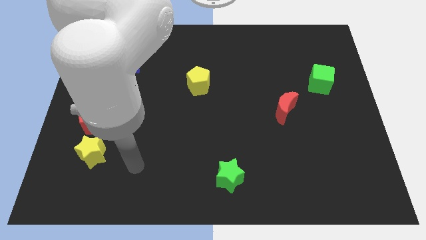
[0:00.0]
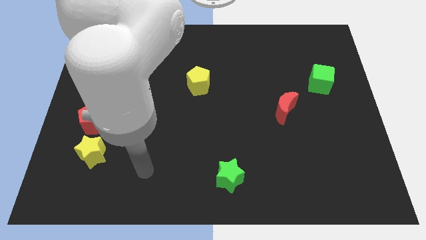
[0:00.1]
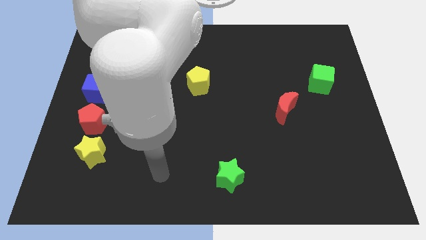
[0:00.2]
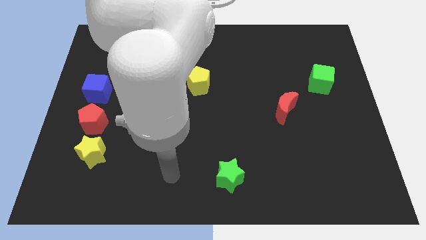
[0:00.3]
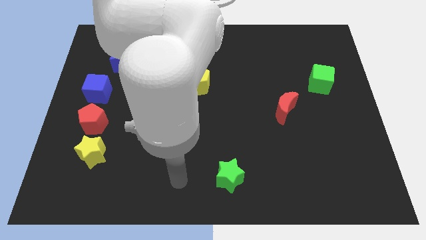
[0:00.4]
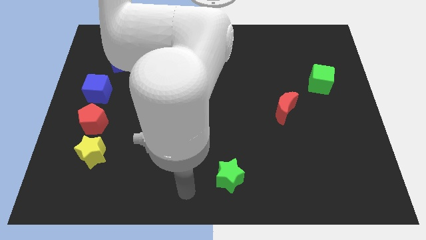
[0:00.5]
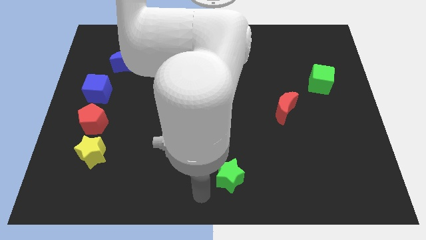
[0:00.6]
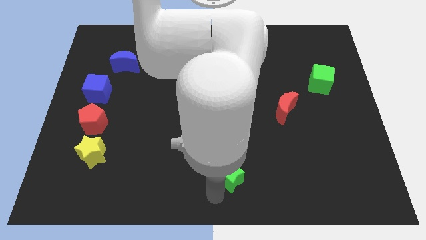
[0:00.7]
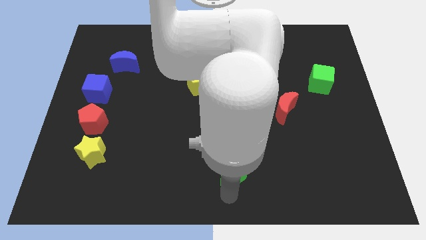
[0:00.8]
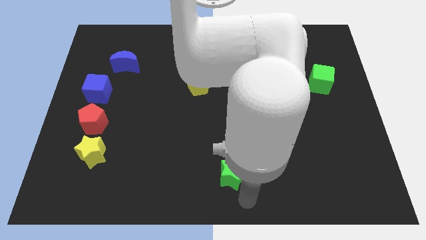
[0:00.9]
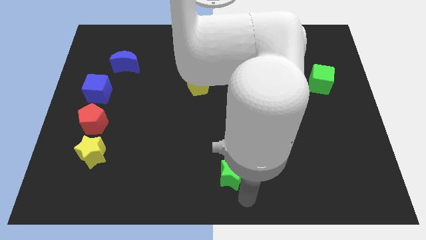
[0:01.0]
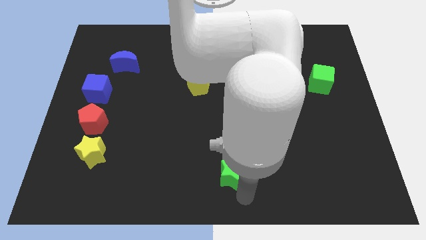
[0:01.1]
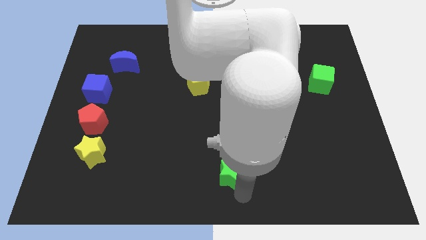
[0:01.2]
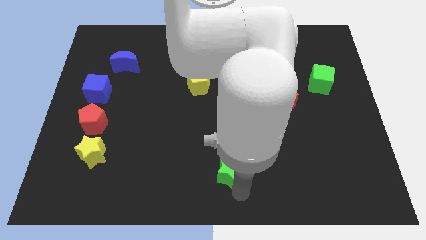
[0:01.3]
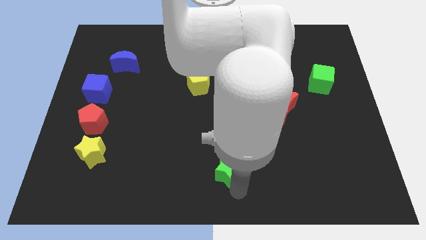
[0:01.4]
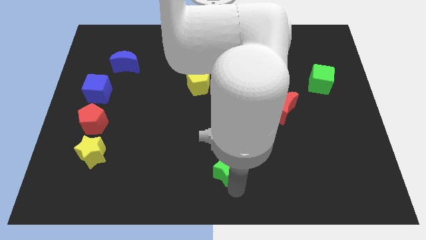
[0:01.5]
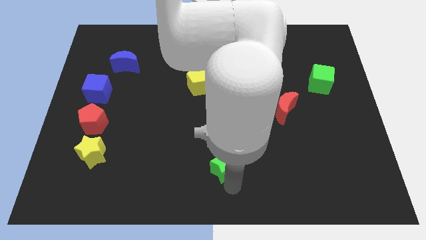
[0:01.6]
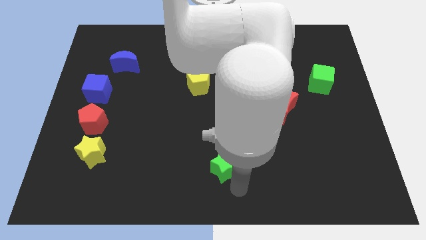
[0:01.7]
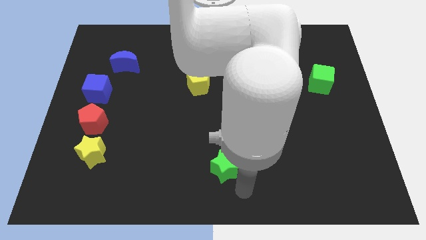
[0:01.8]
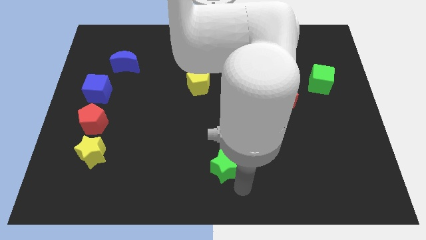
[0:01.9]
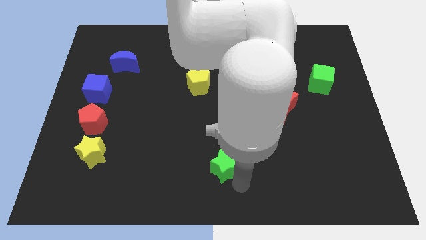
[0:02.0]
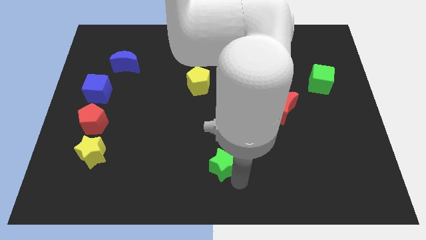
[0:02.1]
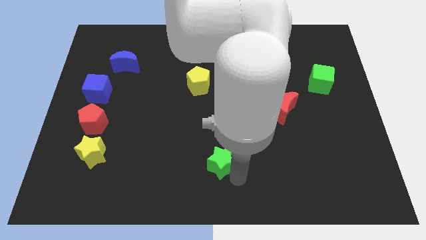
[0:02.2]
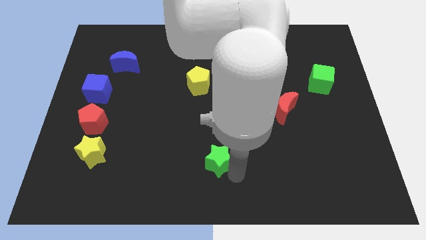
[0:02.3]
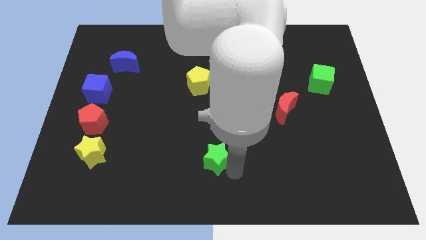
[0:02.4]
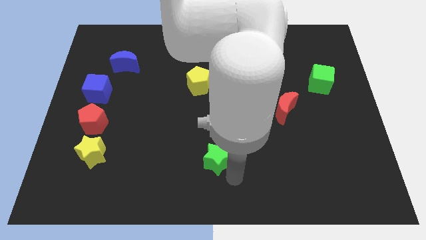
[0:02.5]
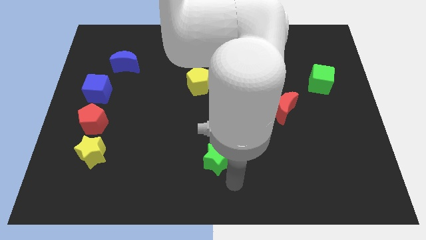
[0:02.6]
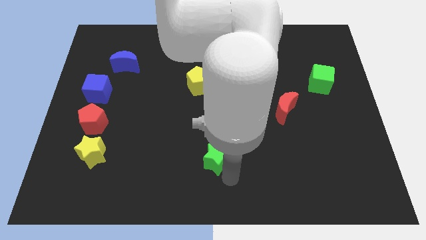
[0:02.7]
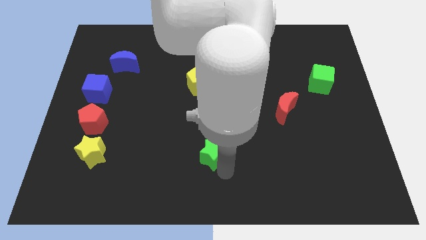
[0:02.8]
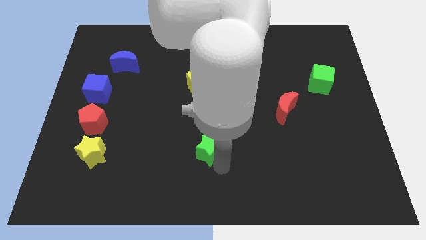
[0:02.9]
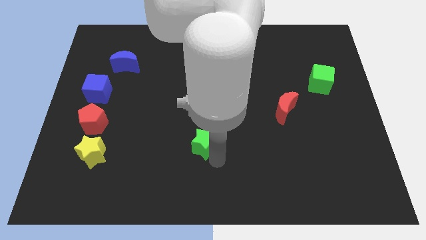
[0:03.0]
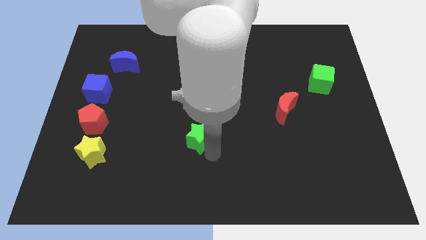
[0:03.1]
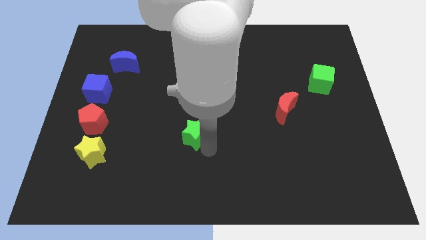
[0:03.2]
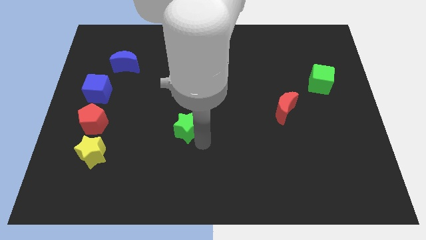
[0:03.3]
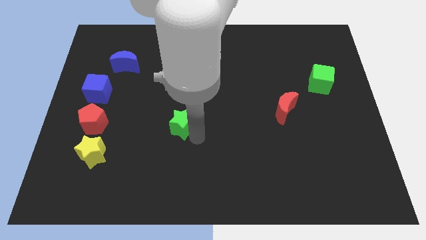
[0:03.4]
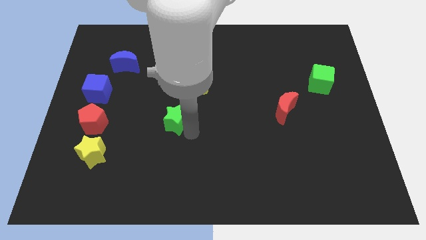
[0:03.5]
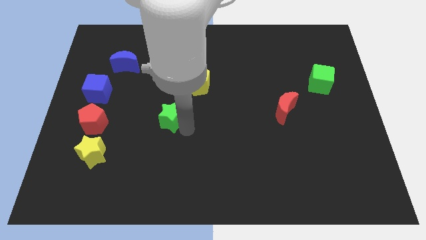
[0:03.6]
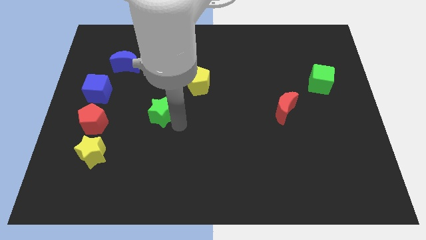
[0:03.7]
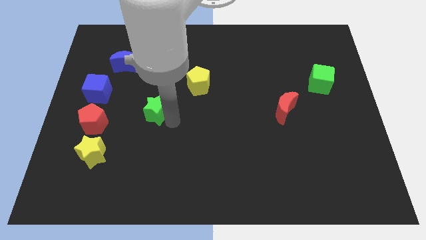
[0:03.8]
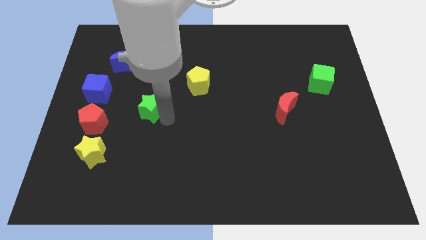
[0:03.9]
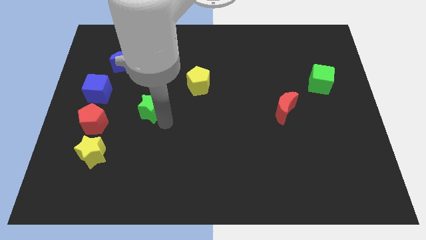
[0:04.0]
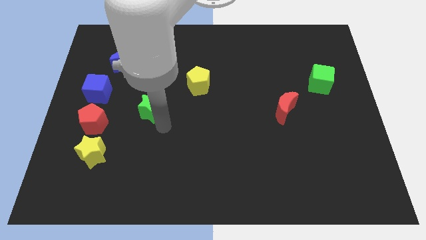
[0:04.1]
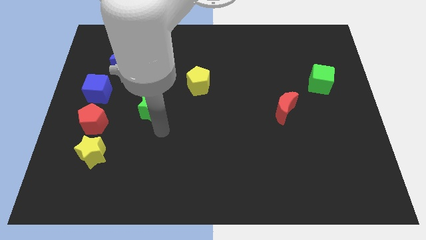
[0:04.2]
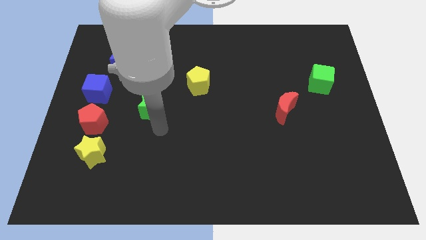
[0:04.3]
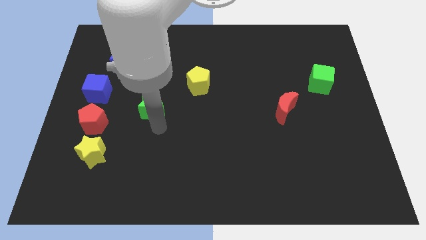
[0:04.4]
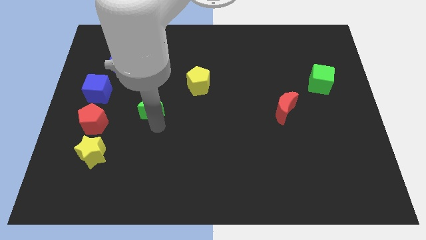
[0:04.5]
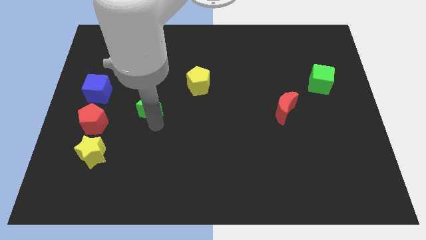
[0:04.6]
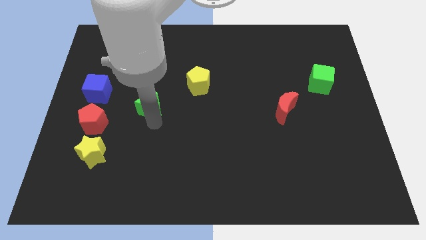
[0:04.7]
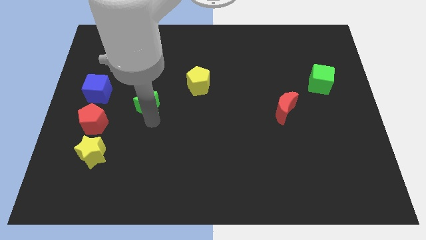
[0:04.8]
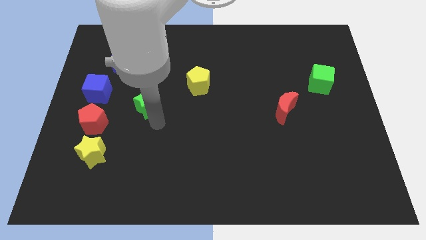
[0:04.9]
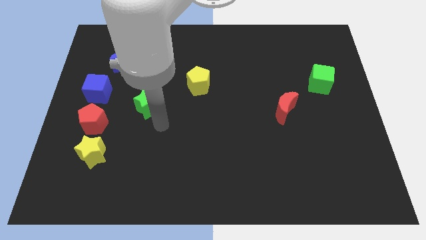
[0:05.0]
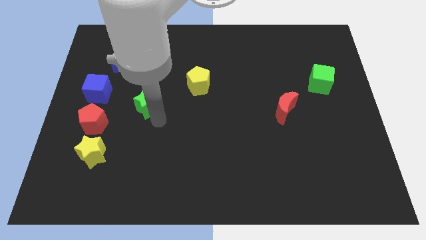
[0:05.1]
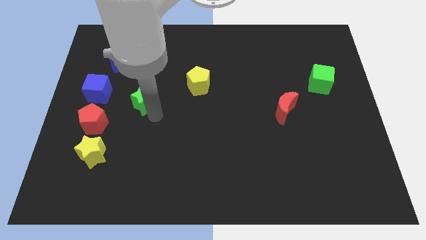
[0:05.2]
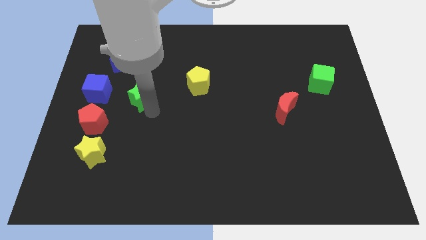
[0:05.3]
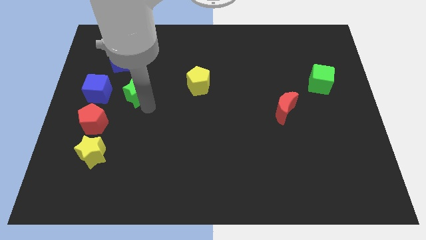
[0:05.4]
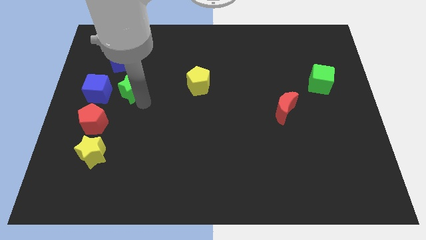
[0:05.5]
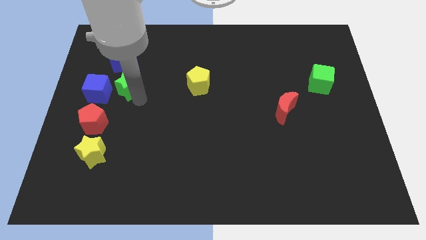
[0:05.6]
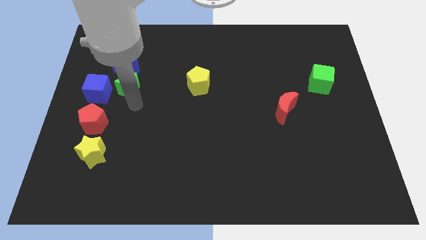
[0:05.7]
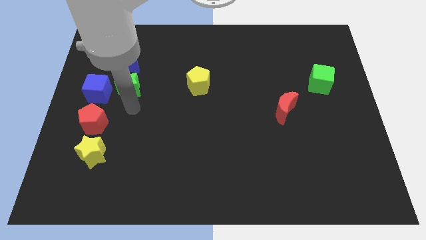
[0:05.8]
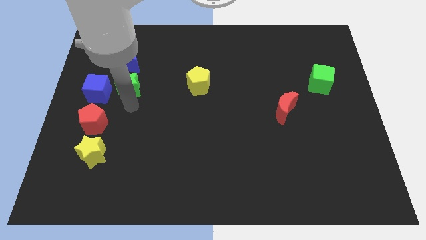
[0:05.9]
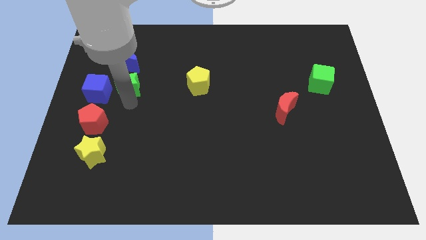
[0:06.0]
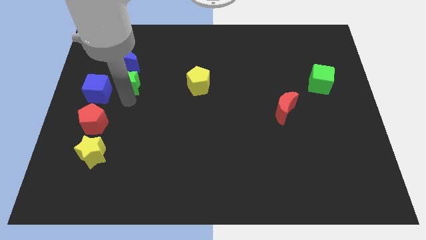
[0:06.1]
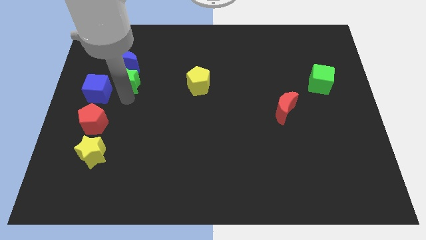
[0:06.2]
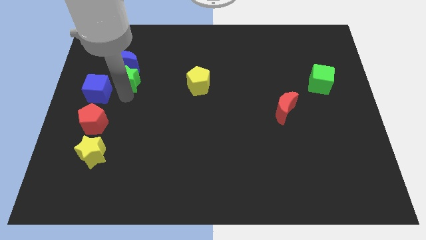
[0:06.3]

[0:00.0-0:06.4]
put the green star towards the blue moon

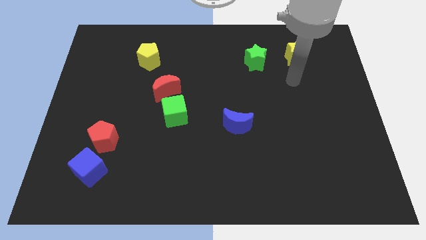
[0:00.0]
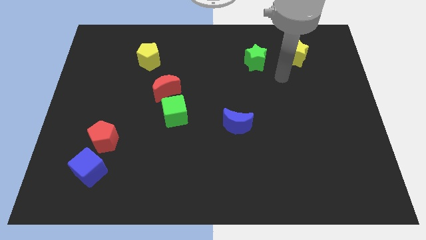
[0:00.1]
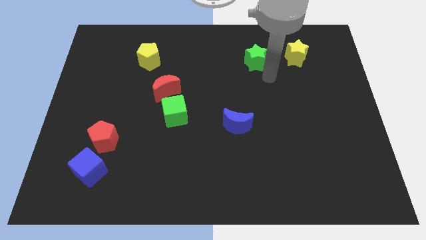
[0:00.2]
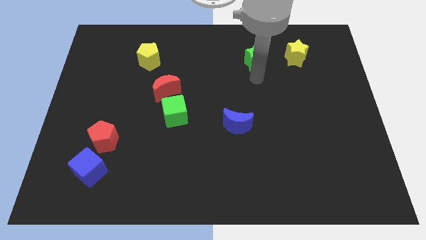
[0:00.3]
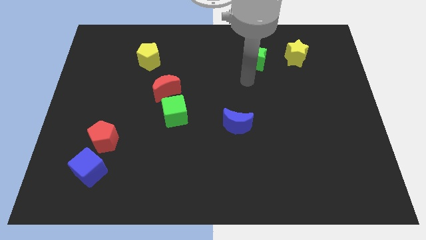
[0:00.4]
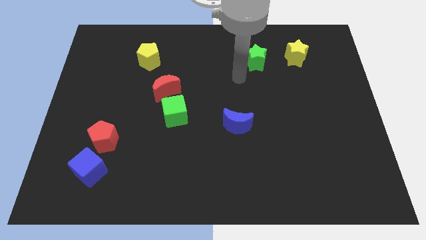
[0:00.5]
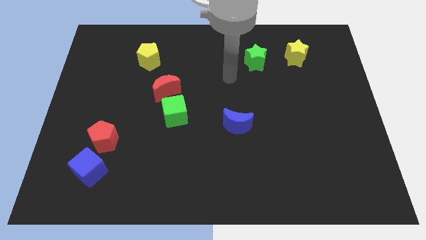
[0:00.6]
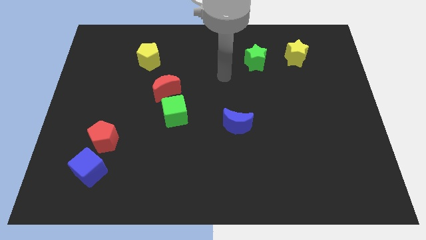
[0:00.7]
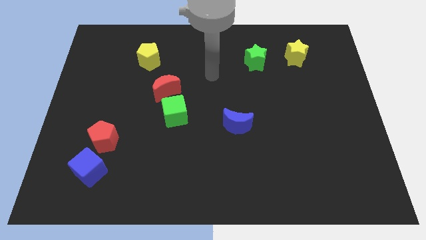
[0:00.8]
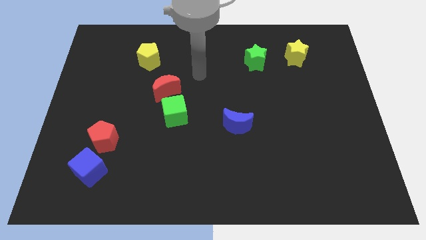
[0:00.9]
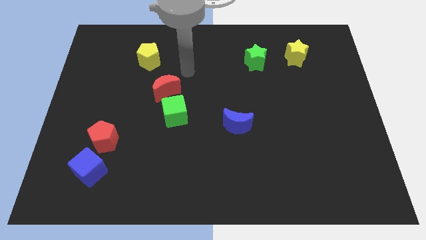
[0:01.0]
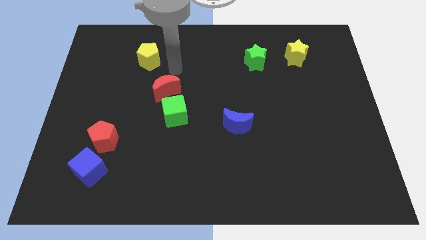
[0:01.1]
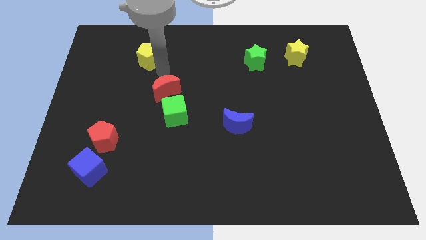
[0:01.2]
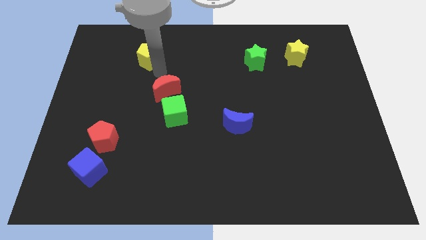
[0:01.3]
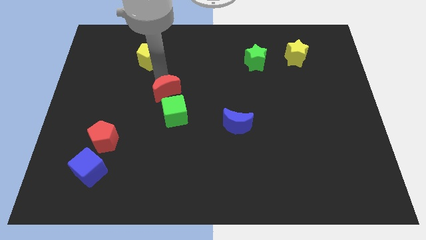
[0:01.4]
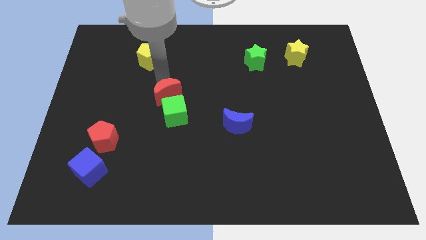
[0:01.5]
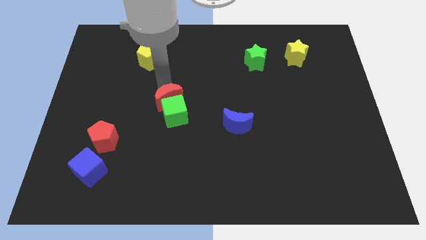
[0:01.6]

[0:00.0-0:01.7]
put the red moon next to the green cube
